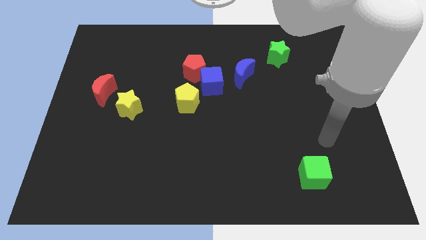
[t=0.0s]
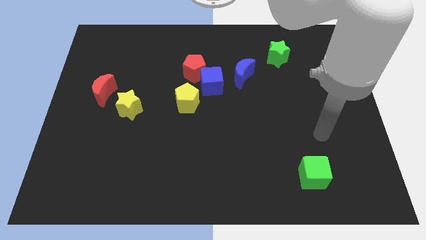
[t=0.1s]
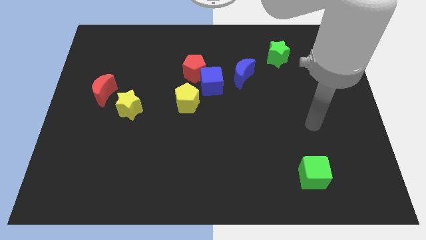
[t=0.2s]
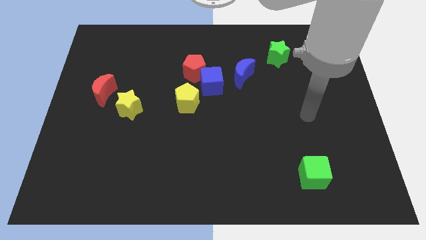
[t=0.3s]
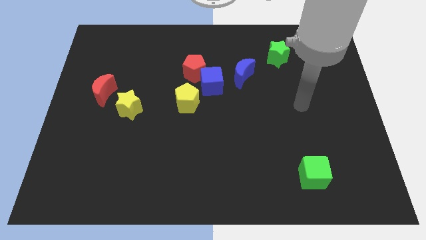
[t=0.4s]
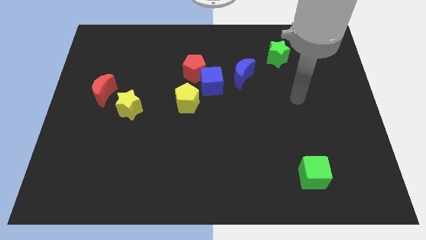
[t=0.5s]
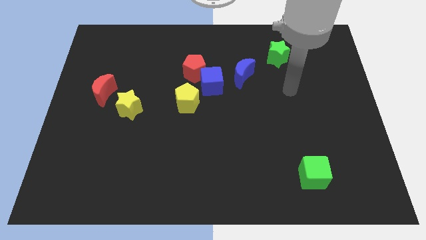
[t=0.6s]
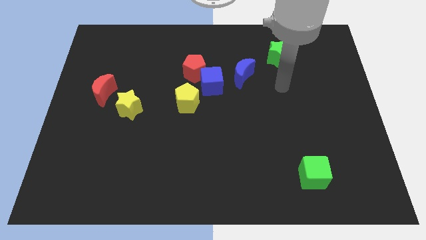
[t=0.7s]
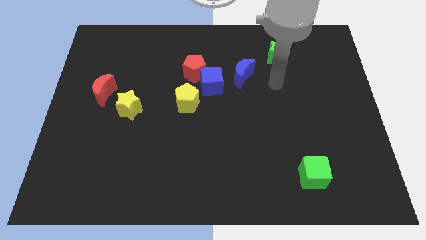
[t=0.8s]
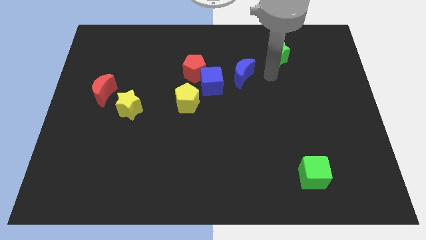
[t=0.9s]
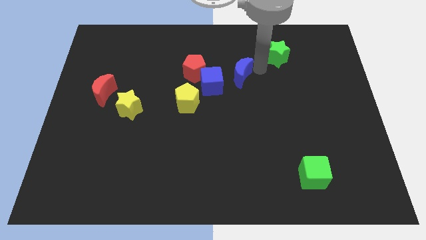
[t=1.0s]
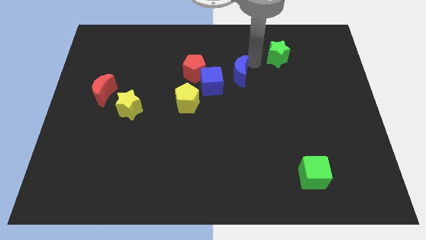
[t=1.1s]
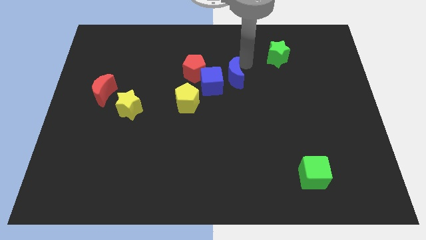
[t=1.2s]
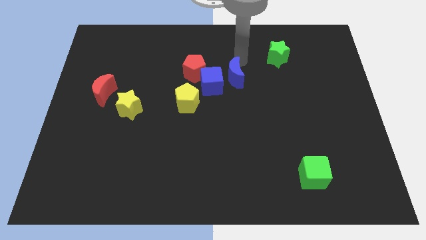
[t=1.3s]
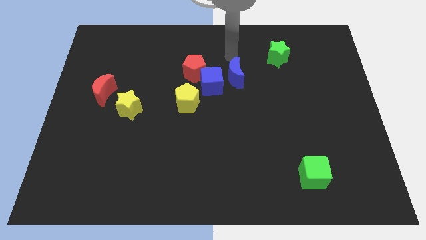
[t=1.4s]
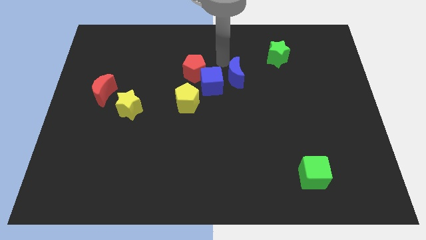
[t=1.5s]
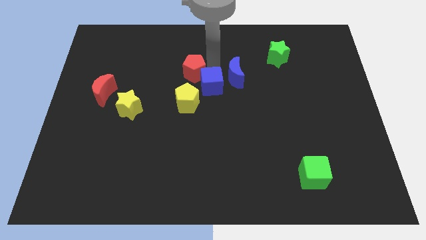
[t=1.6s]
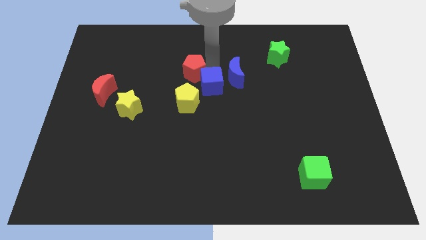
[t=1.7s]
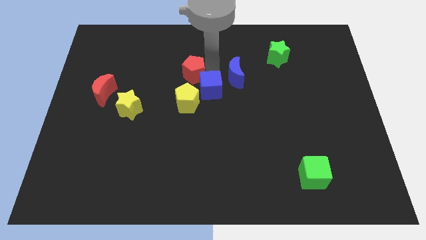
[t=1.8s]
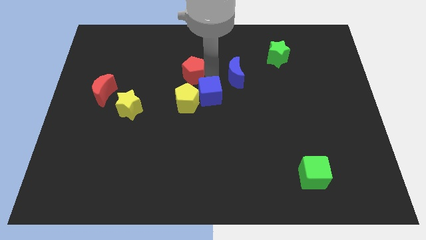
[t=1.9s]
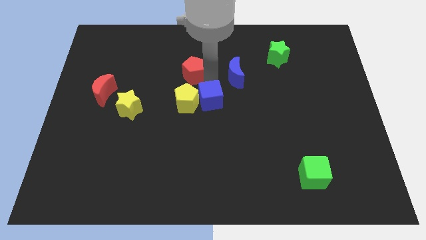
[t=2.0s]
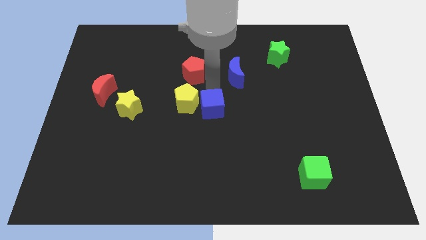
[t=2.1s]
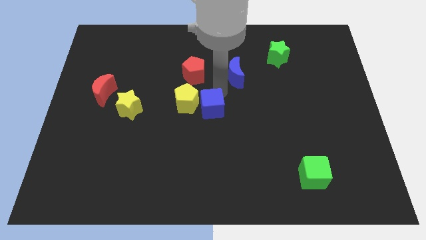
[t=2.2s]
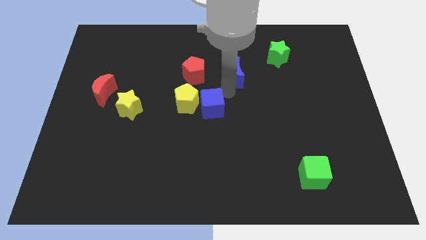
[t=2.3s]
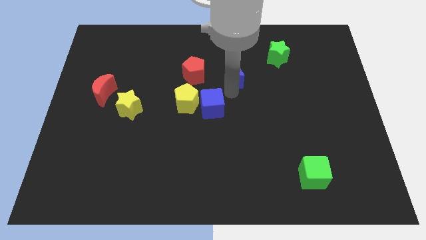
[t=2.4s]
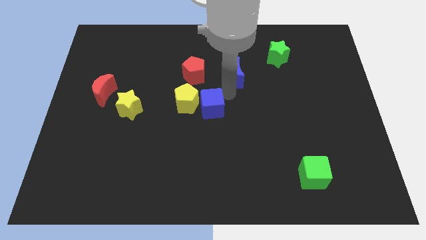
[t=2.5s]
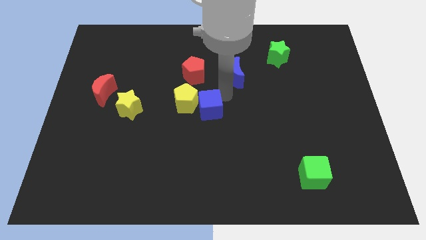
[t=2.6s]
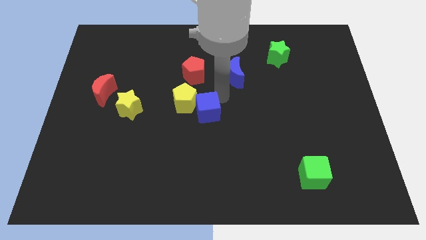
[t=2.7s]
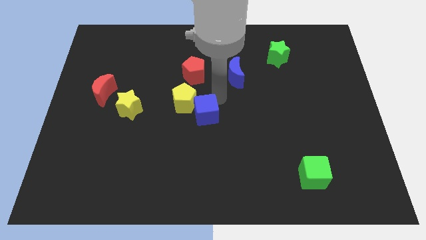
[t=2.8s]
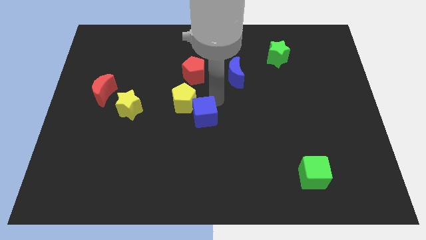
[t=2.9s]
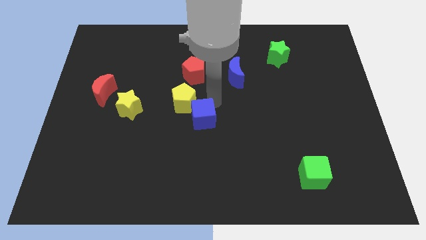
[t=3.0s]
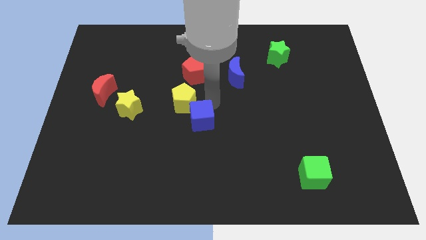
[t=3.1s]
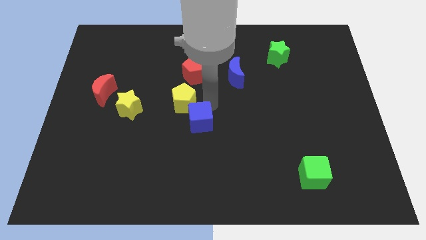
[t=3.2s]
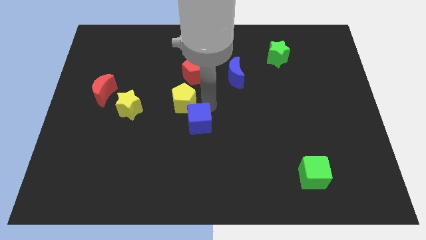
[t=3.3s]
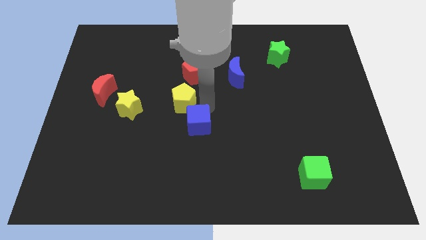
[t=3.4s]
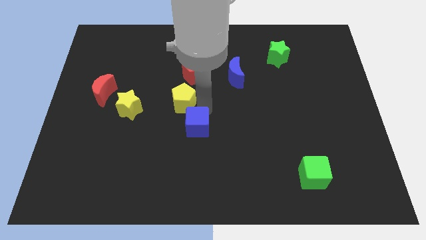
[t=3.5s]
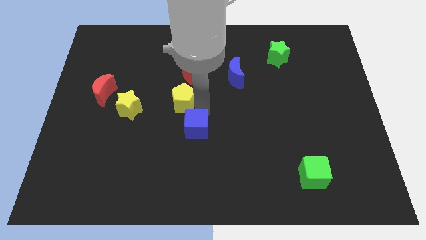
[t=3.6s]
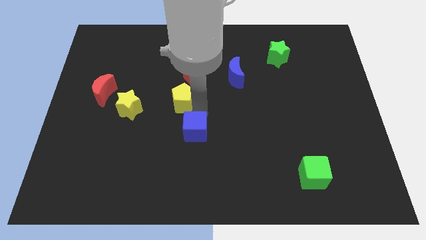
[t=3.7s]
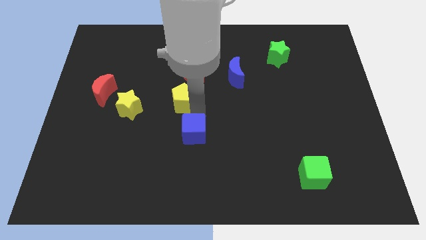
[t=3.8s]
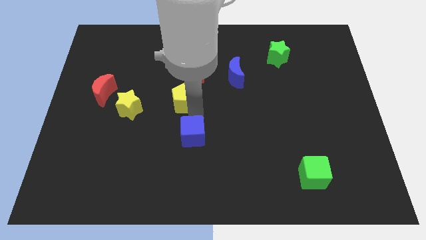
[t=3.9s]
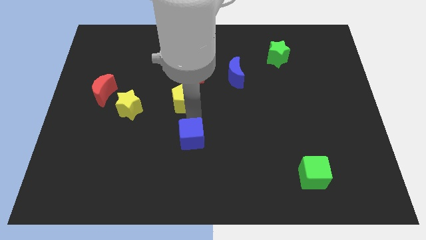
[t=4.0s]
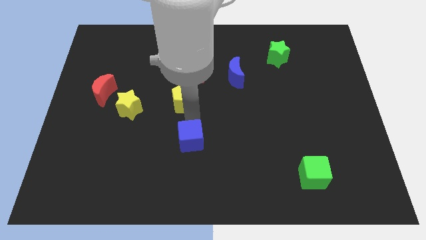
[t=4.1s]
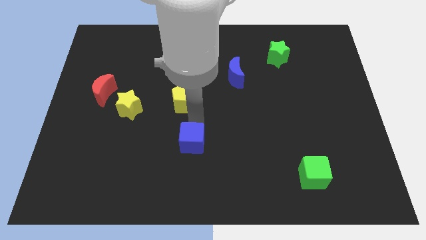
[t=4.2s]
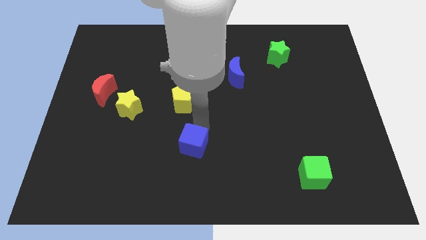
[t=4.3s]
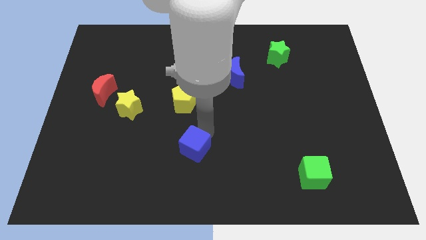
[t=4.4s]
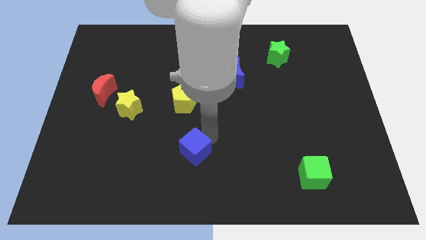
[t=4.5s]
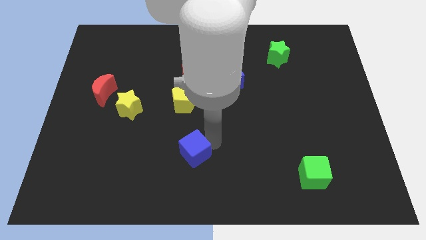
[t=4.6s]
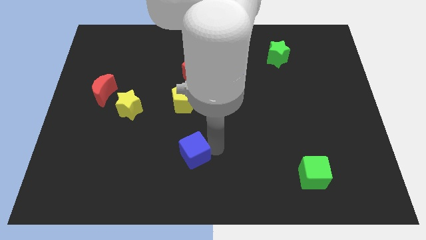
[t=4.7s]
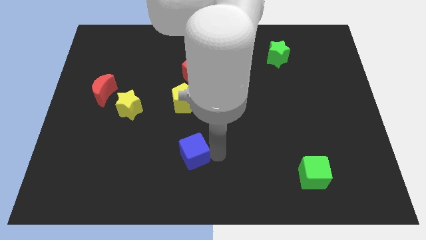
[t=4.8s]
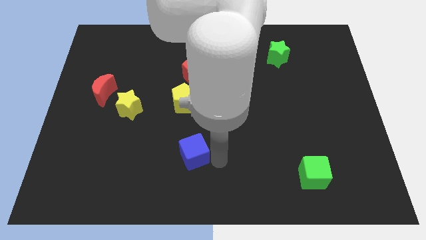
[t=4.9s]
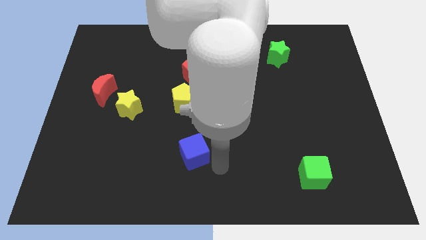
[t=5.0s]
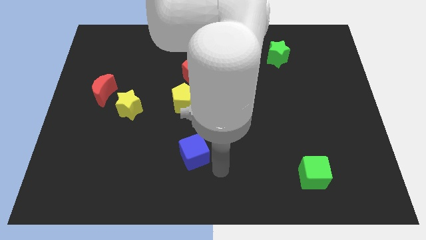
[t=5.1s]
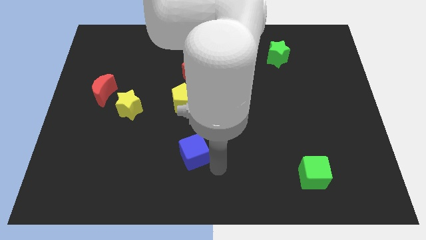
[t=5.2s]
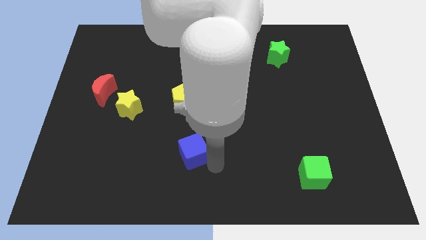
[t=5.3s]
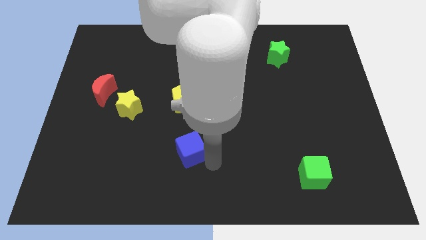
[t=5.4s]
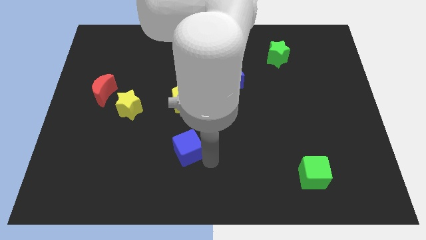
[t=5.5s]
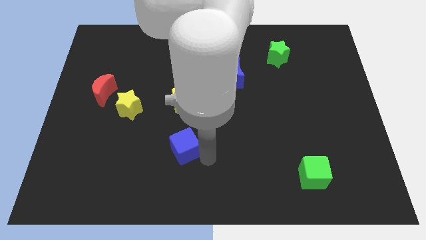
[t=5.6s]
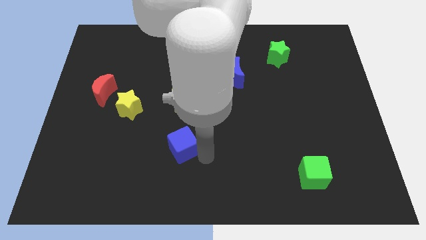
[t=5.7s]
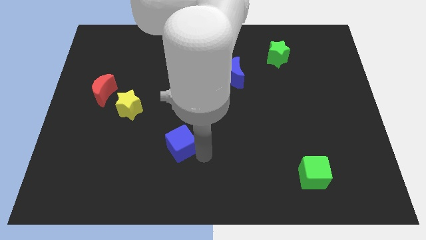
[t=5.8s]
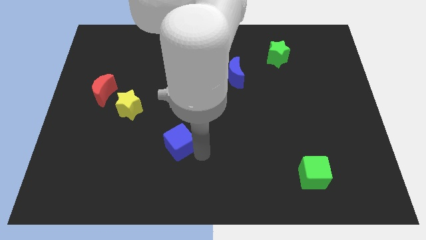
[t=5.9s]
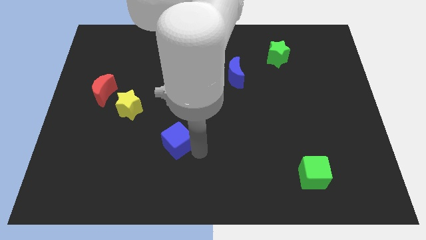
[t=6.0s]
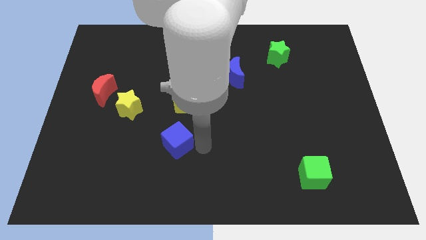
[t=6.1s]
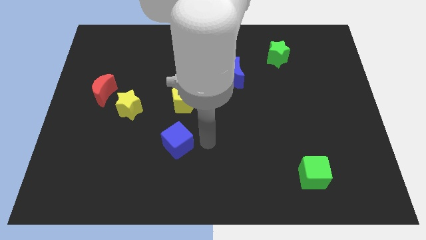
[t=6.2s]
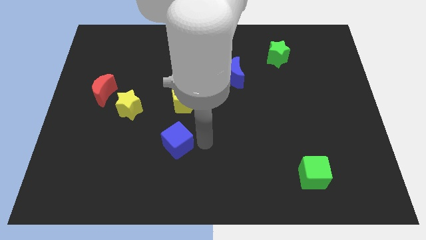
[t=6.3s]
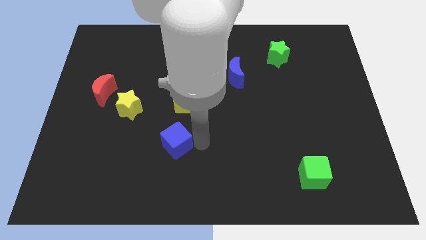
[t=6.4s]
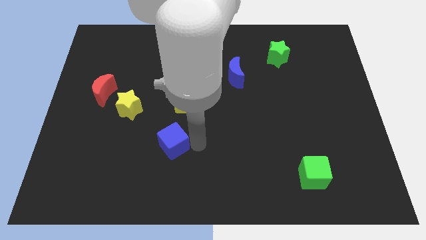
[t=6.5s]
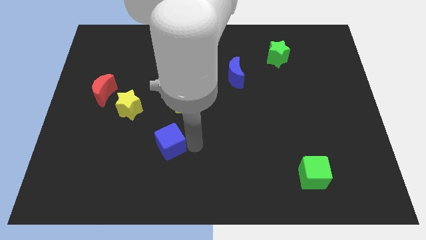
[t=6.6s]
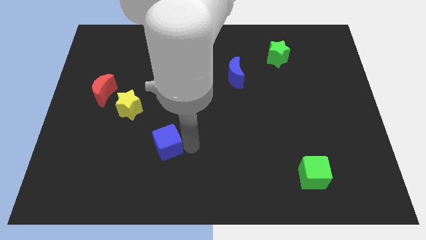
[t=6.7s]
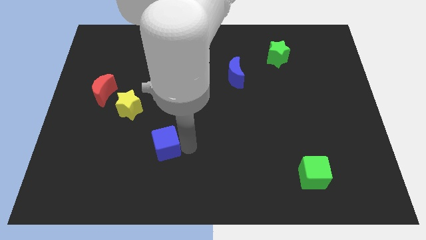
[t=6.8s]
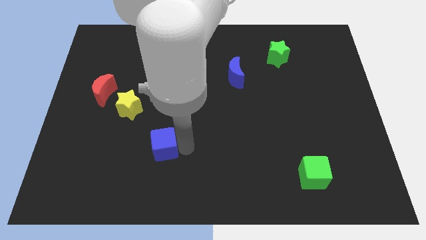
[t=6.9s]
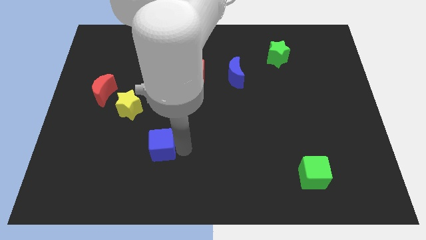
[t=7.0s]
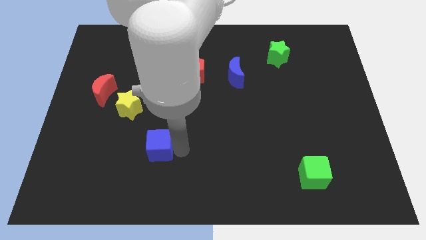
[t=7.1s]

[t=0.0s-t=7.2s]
push the blue cube down and to the left diagonally

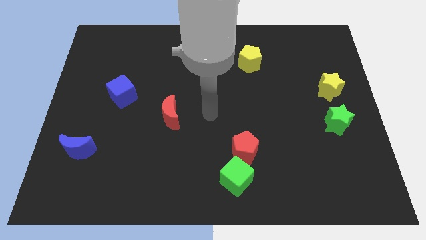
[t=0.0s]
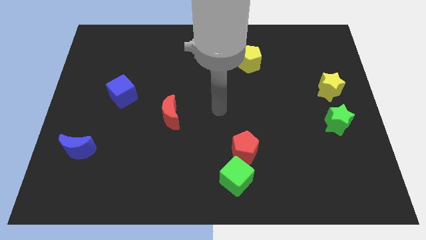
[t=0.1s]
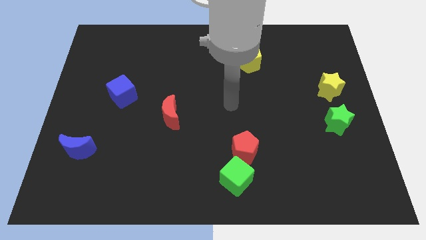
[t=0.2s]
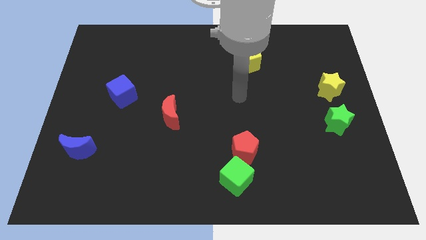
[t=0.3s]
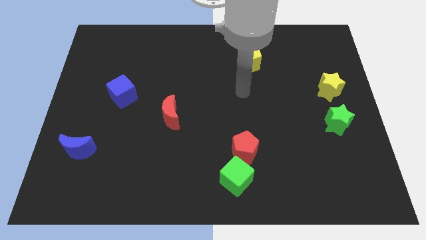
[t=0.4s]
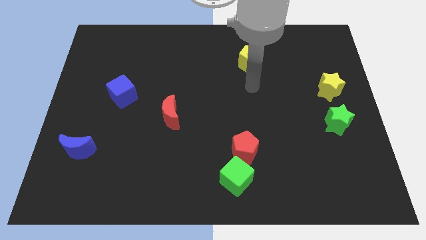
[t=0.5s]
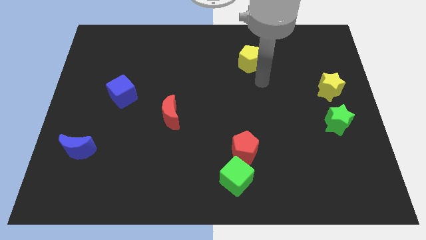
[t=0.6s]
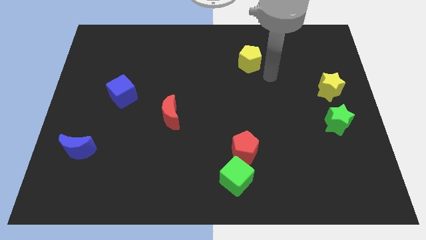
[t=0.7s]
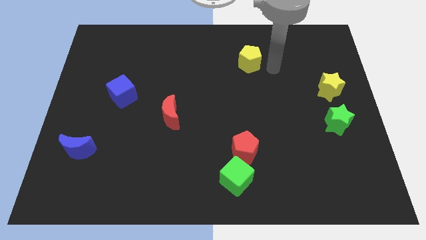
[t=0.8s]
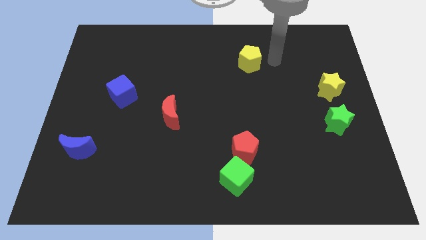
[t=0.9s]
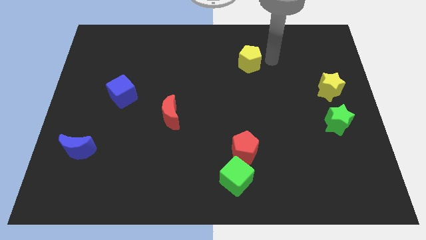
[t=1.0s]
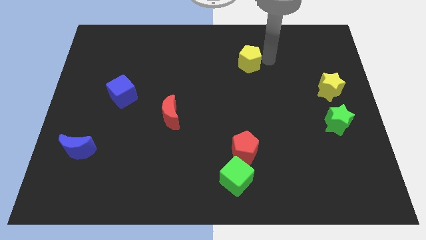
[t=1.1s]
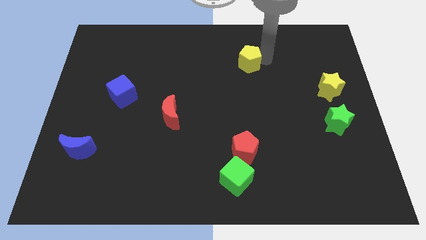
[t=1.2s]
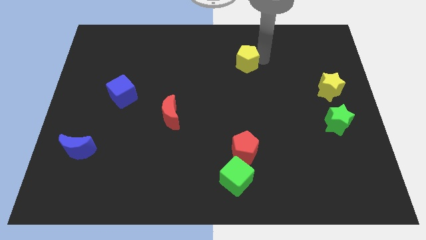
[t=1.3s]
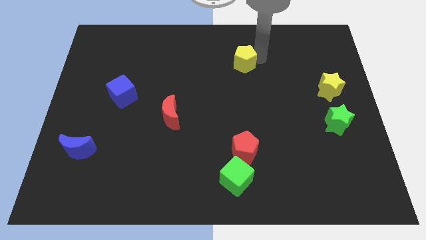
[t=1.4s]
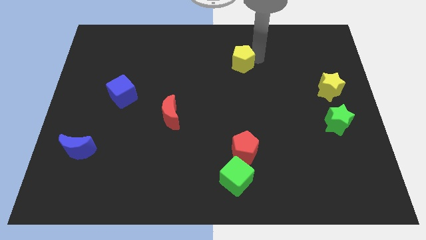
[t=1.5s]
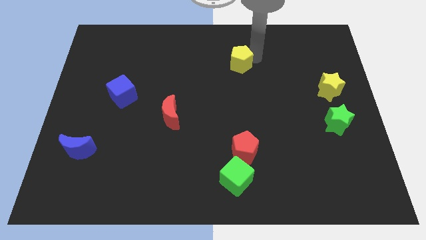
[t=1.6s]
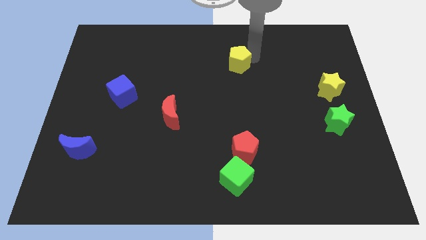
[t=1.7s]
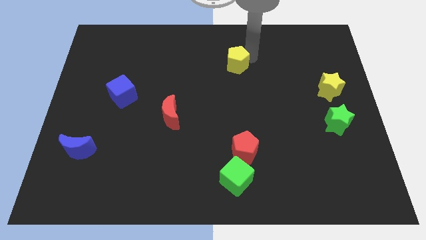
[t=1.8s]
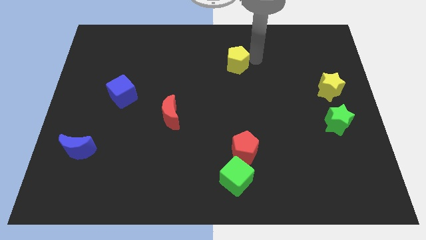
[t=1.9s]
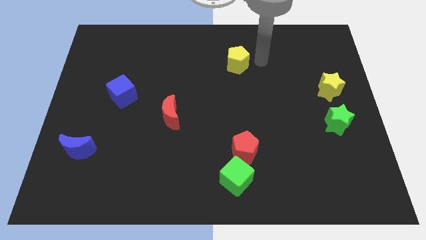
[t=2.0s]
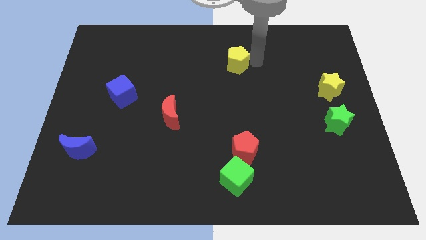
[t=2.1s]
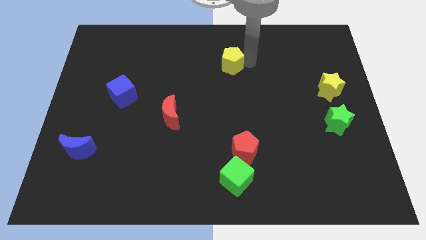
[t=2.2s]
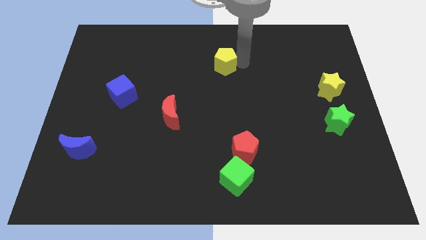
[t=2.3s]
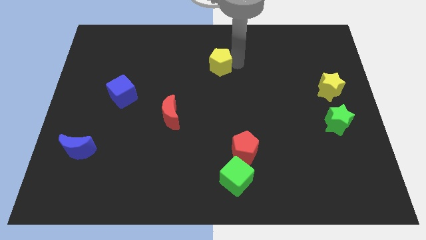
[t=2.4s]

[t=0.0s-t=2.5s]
slightly move the yellow pentagon left
